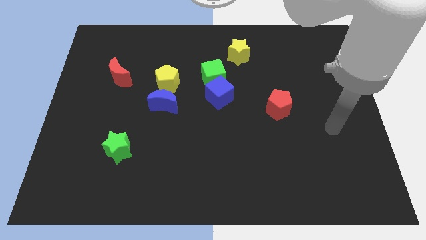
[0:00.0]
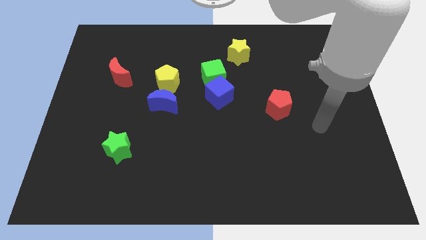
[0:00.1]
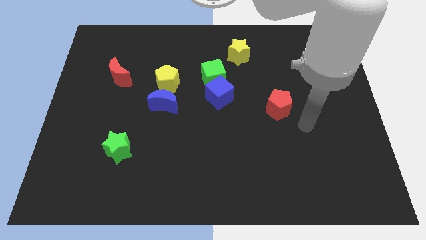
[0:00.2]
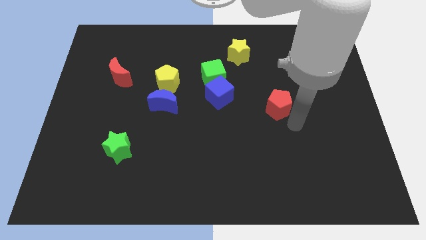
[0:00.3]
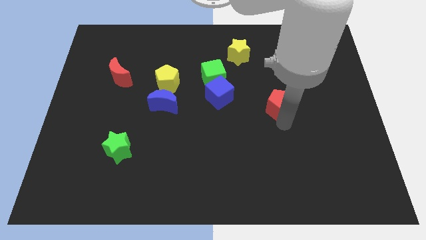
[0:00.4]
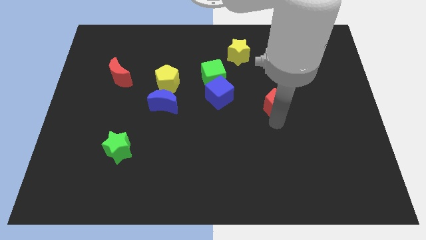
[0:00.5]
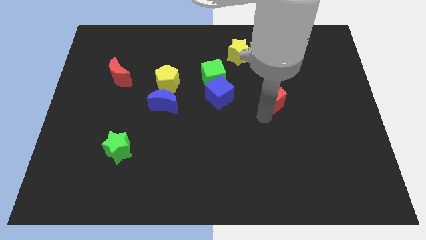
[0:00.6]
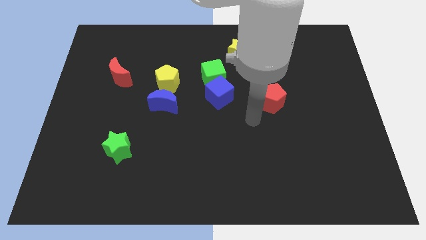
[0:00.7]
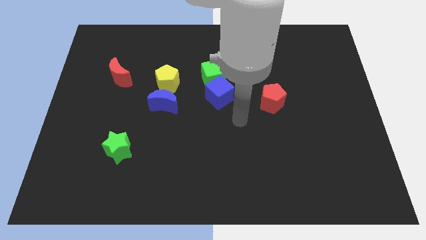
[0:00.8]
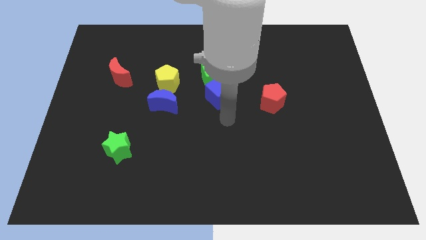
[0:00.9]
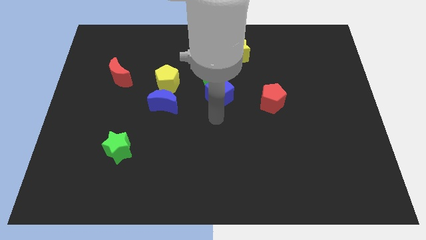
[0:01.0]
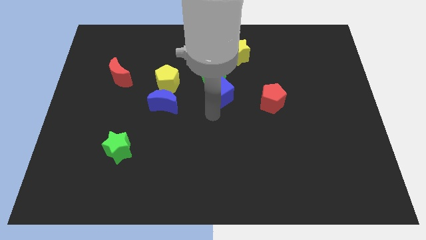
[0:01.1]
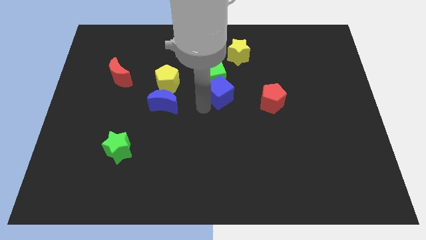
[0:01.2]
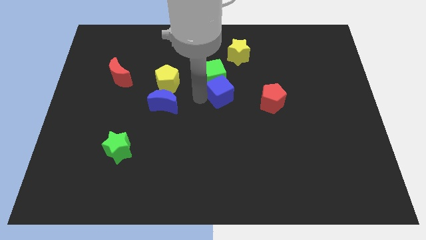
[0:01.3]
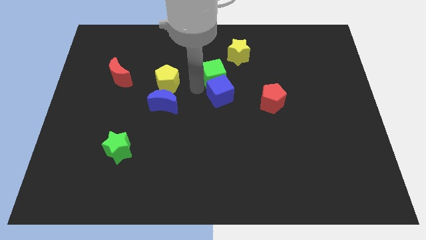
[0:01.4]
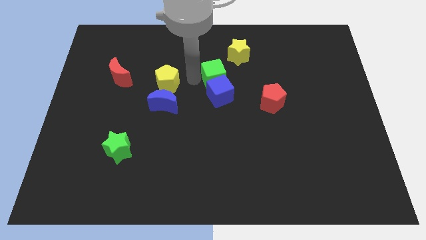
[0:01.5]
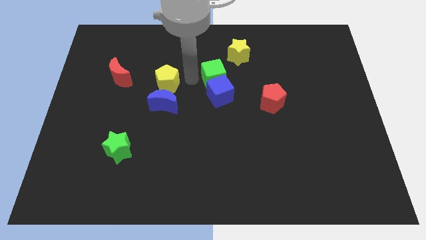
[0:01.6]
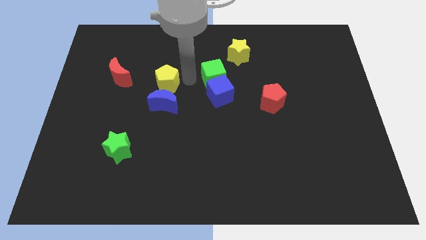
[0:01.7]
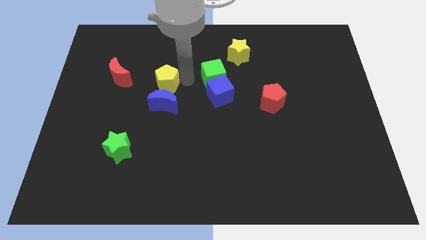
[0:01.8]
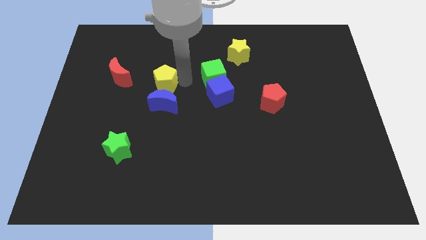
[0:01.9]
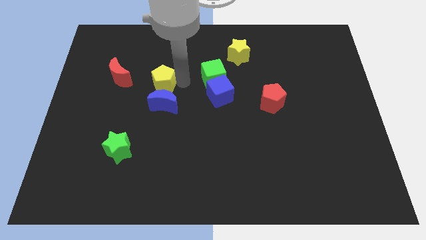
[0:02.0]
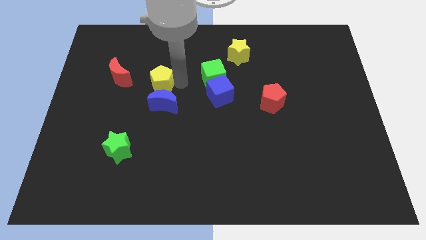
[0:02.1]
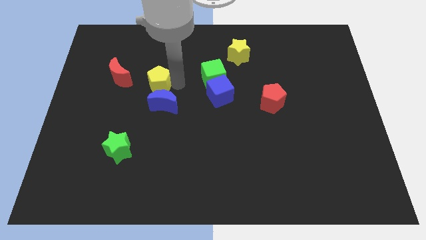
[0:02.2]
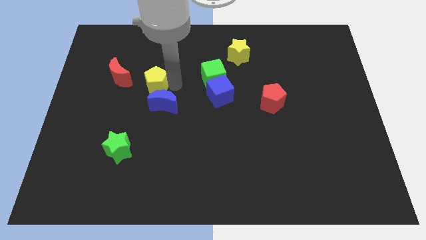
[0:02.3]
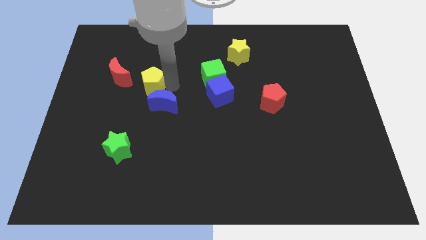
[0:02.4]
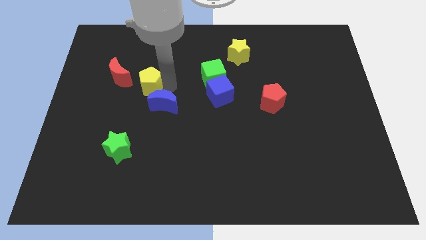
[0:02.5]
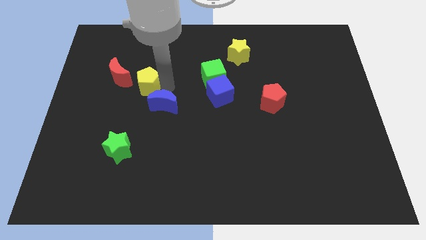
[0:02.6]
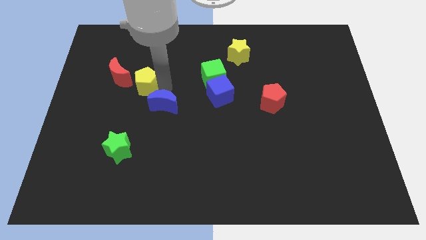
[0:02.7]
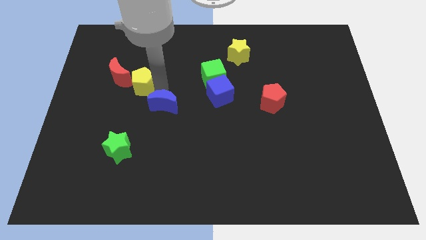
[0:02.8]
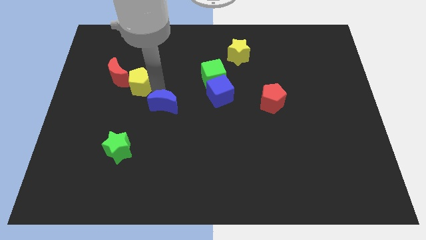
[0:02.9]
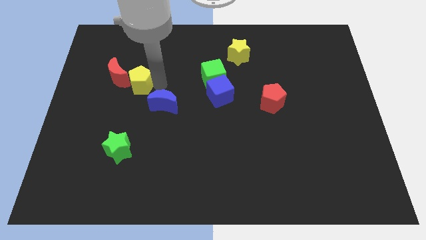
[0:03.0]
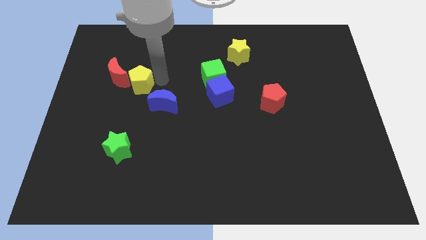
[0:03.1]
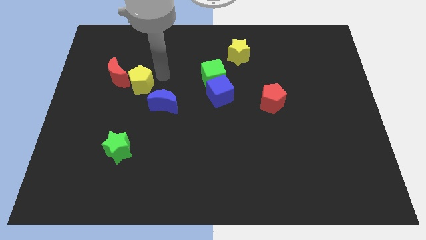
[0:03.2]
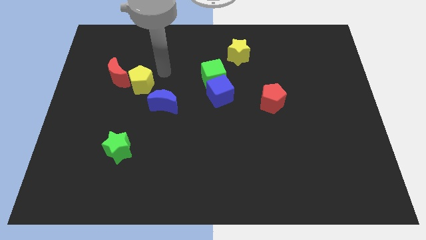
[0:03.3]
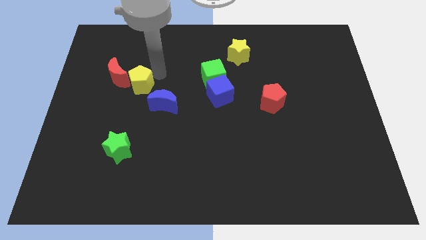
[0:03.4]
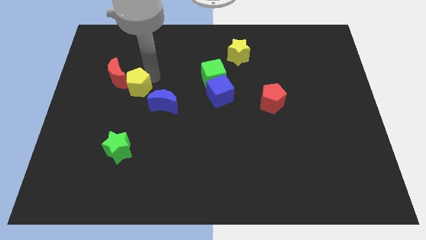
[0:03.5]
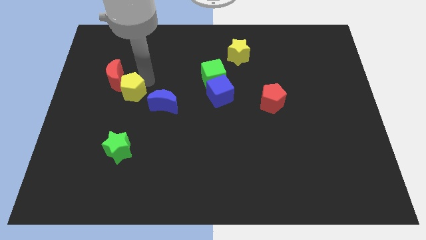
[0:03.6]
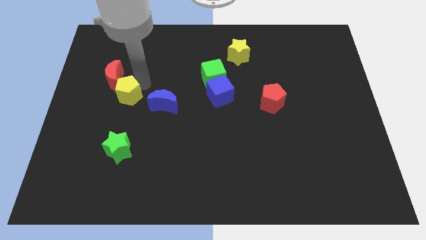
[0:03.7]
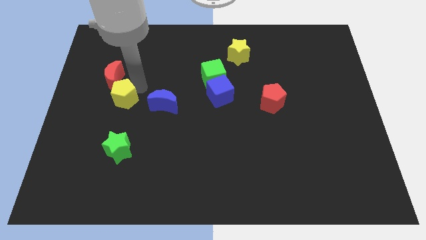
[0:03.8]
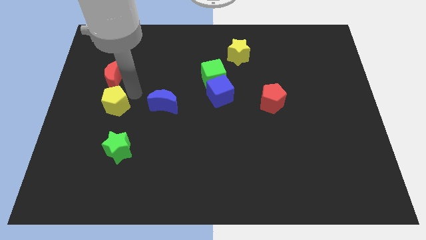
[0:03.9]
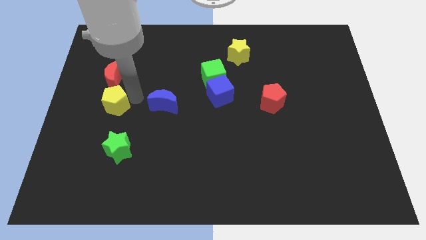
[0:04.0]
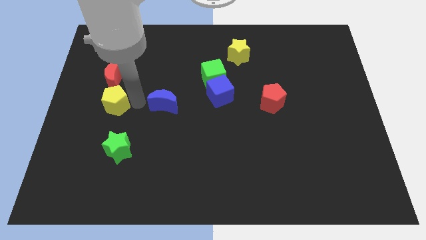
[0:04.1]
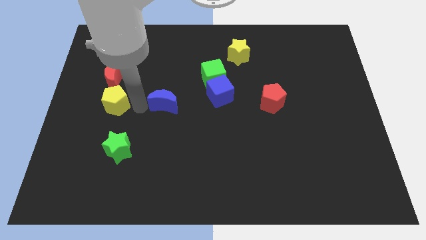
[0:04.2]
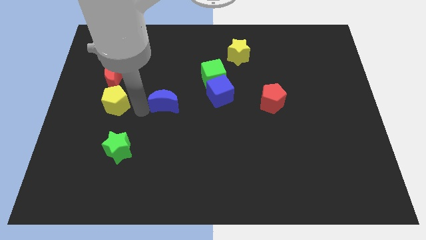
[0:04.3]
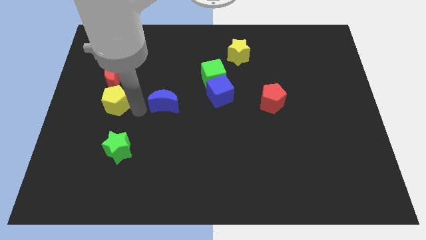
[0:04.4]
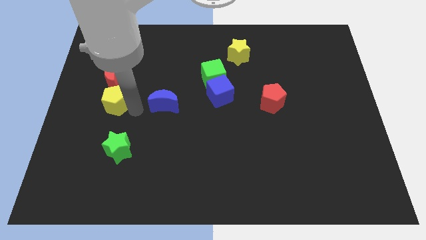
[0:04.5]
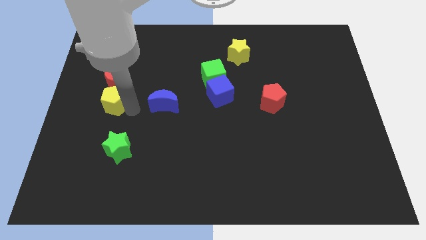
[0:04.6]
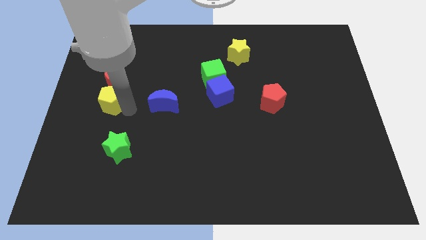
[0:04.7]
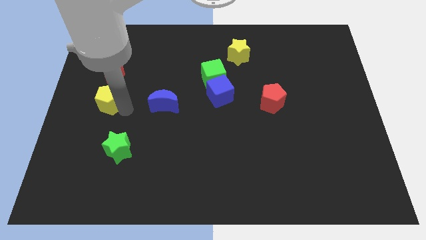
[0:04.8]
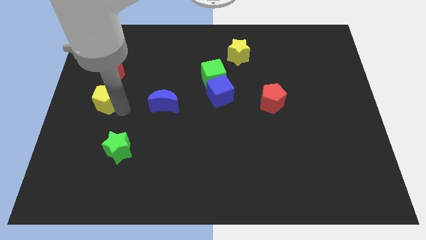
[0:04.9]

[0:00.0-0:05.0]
put the yellow pentagon to the left side of the board

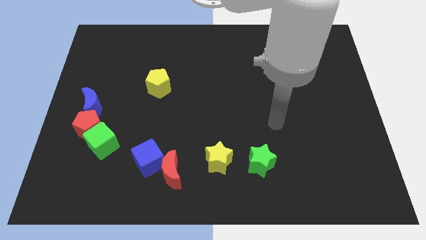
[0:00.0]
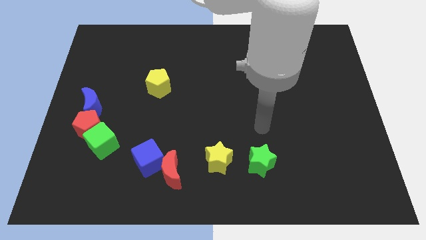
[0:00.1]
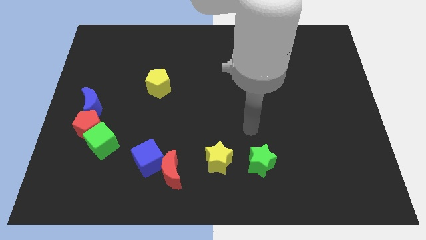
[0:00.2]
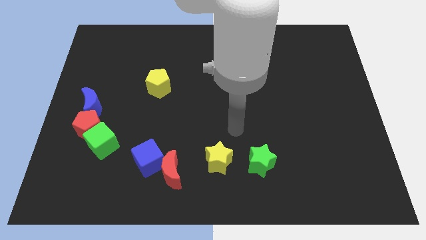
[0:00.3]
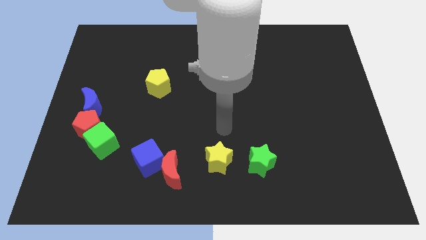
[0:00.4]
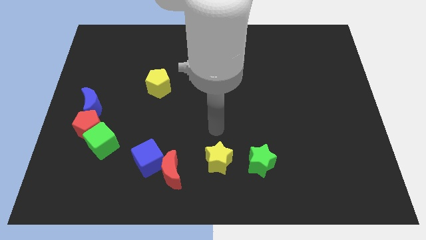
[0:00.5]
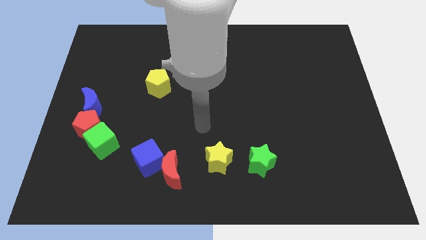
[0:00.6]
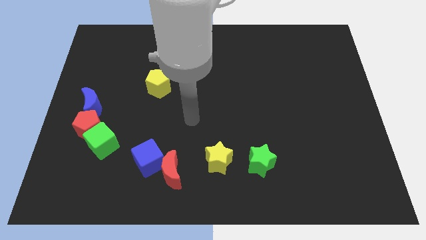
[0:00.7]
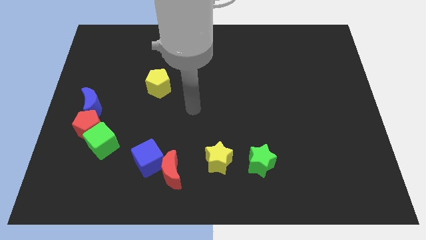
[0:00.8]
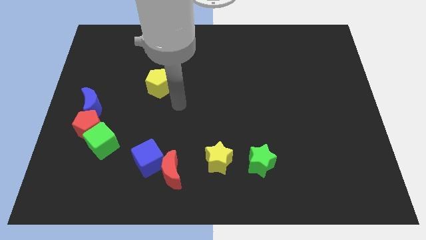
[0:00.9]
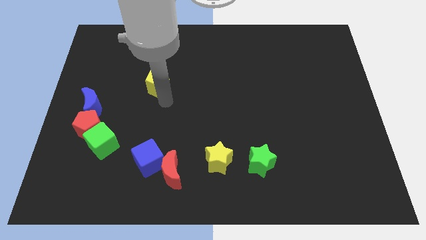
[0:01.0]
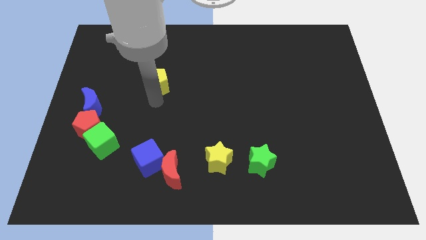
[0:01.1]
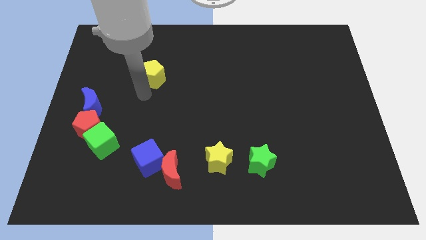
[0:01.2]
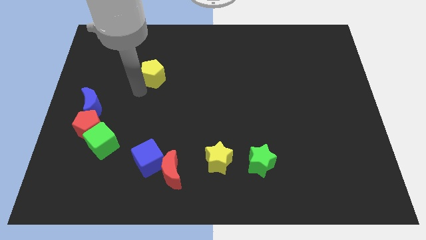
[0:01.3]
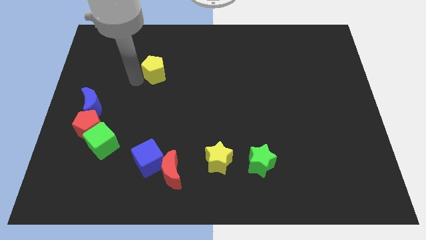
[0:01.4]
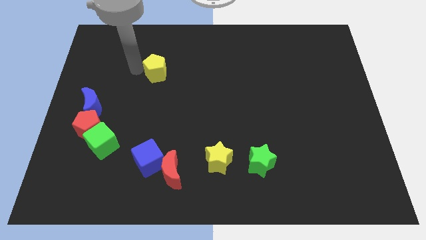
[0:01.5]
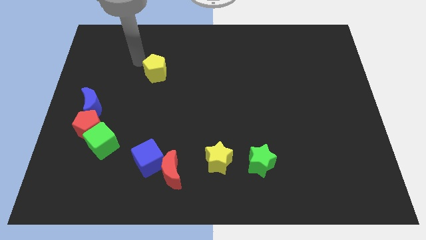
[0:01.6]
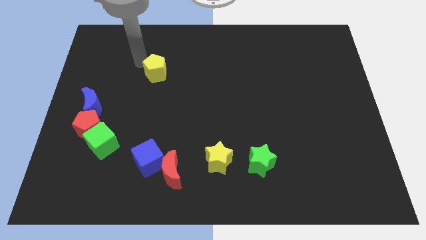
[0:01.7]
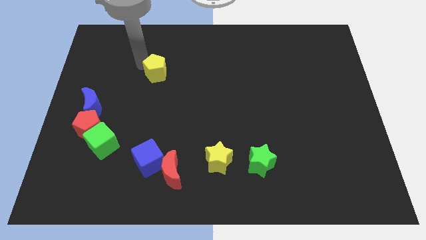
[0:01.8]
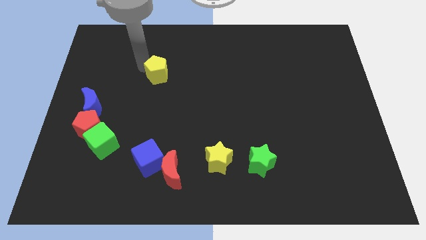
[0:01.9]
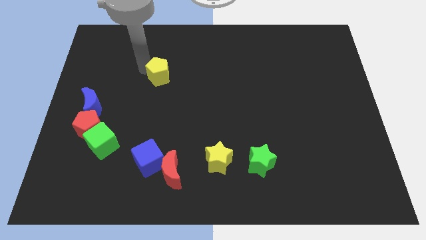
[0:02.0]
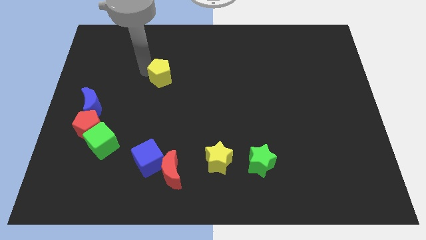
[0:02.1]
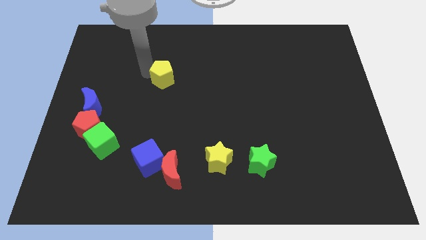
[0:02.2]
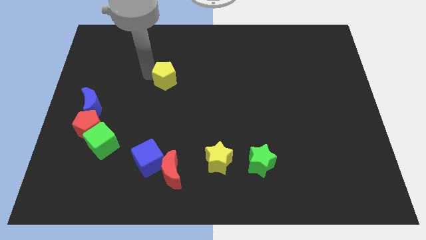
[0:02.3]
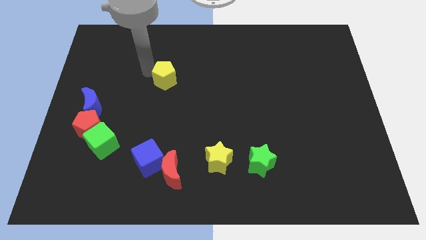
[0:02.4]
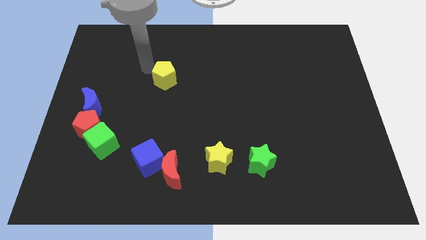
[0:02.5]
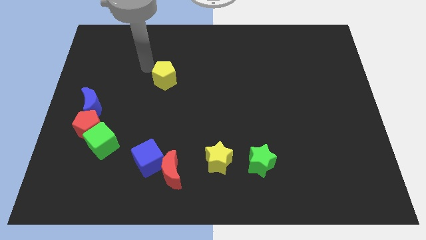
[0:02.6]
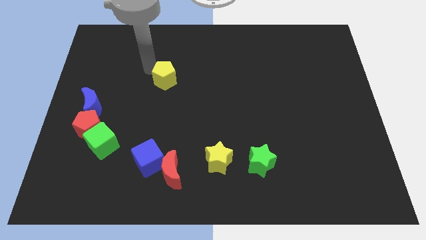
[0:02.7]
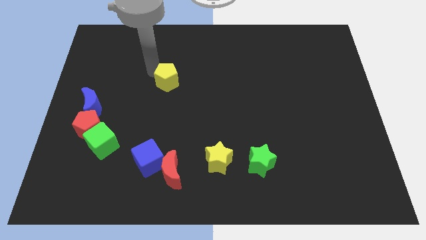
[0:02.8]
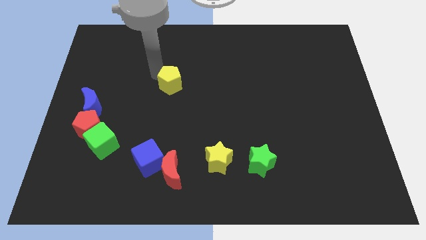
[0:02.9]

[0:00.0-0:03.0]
put the yellow pentagon to the middle
